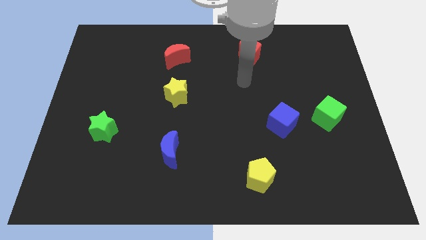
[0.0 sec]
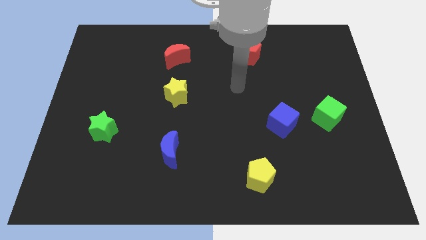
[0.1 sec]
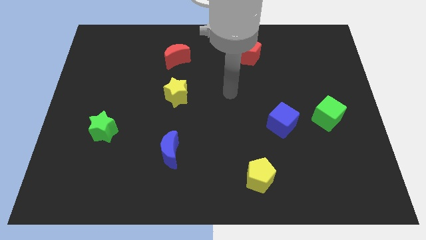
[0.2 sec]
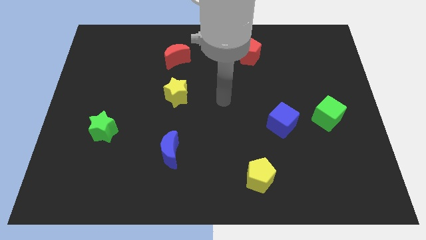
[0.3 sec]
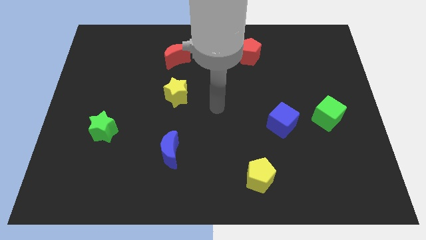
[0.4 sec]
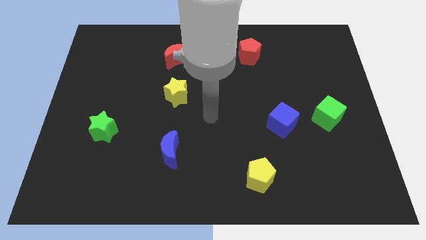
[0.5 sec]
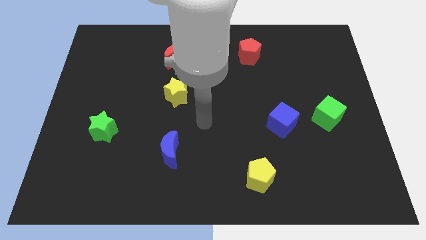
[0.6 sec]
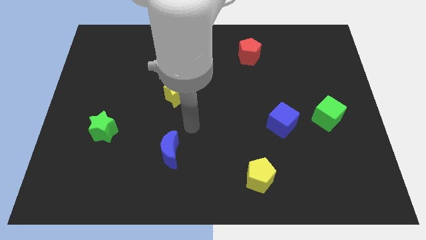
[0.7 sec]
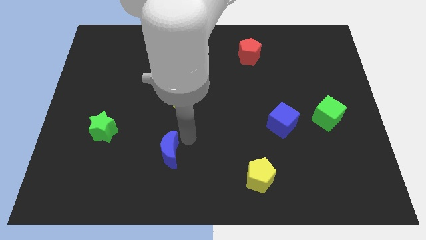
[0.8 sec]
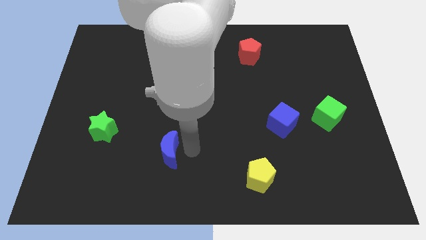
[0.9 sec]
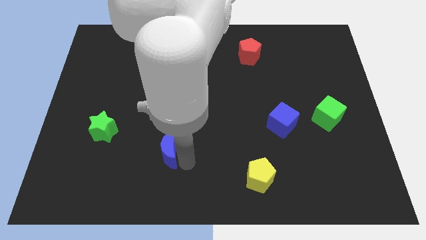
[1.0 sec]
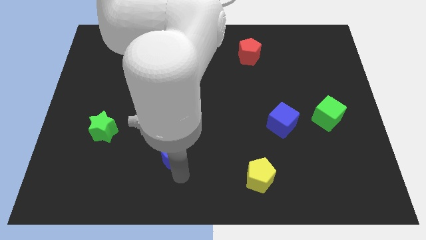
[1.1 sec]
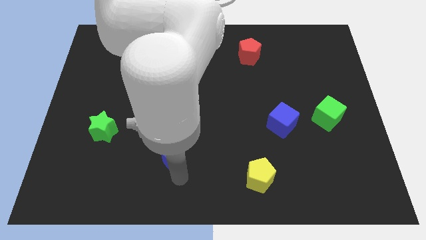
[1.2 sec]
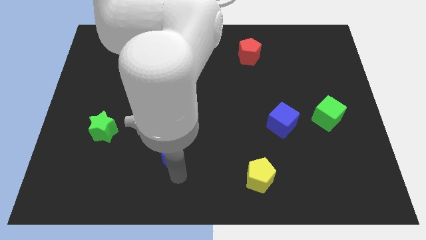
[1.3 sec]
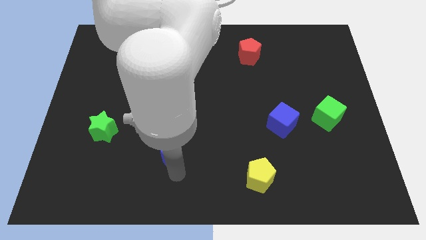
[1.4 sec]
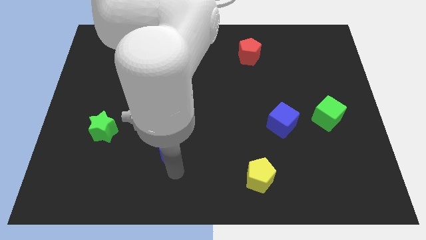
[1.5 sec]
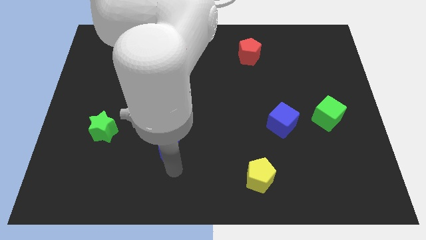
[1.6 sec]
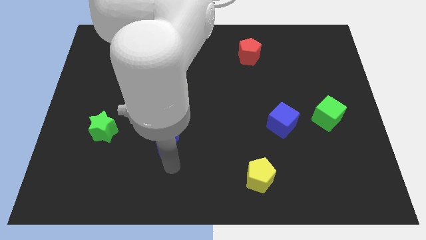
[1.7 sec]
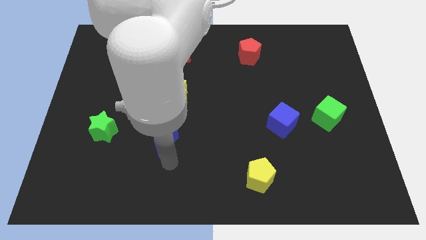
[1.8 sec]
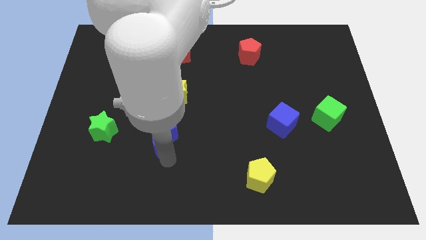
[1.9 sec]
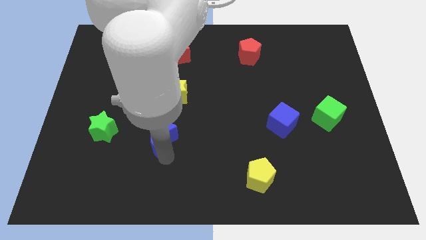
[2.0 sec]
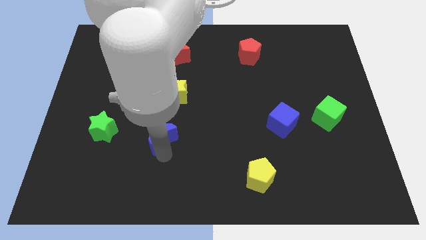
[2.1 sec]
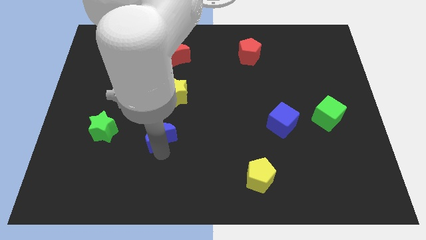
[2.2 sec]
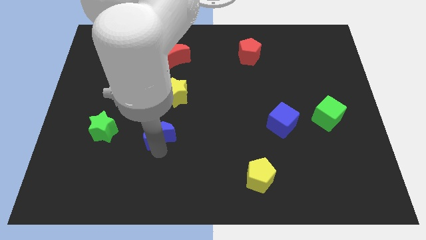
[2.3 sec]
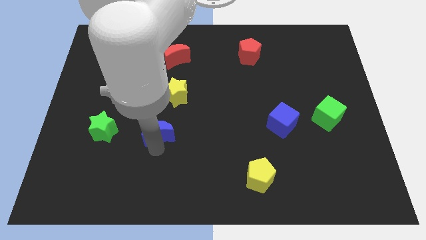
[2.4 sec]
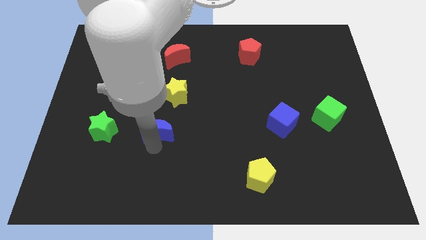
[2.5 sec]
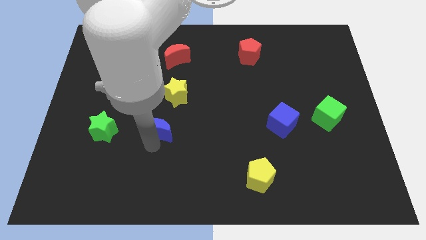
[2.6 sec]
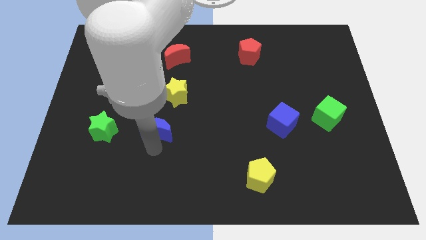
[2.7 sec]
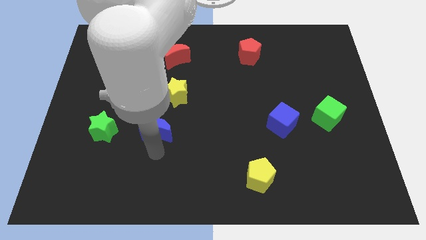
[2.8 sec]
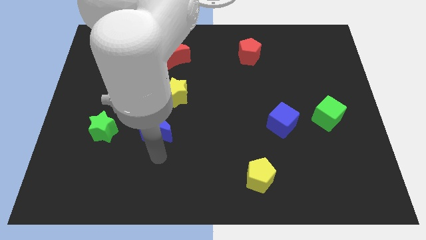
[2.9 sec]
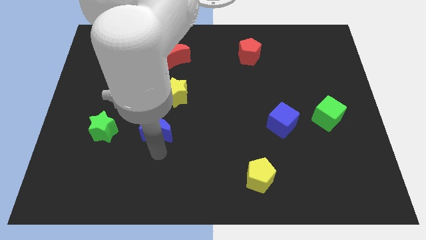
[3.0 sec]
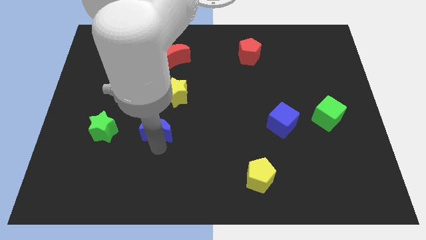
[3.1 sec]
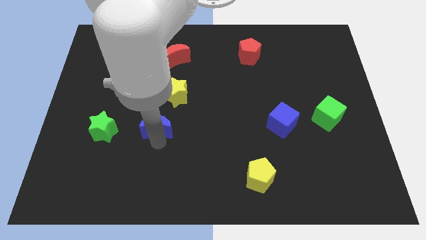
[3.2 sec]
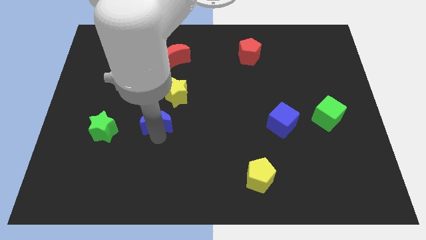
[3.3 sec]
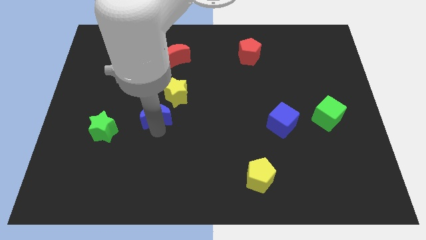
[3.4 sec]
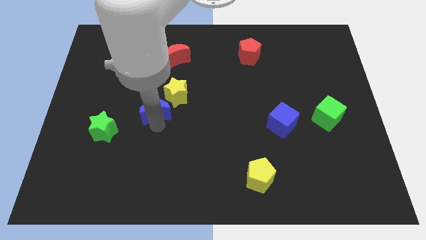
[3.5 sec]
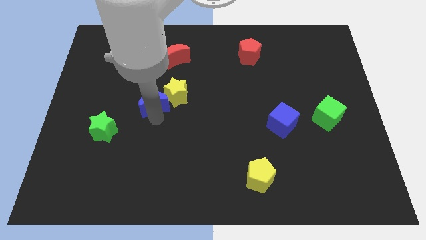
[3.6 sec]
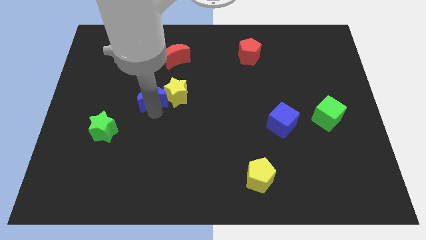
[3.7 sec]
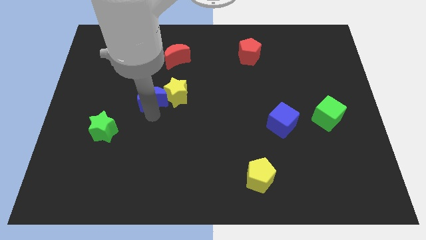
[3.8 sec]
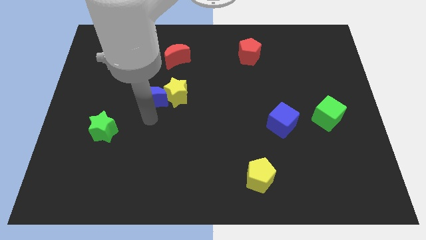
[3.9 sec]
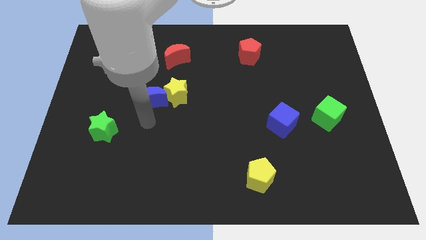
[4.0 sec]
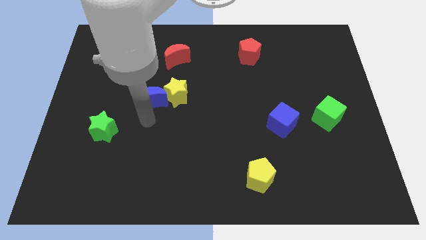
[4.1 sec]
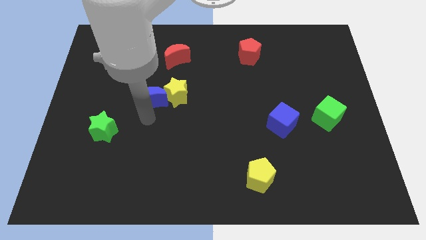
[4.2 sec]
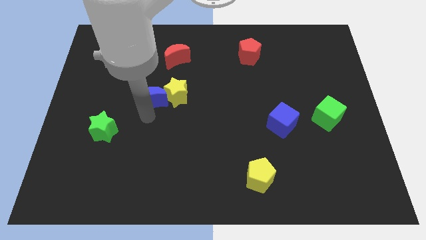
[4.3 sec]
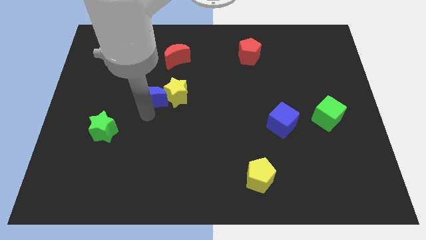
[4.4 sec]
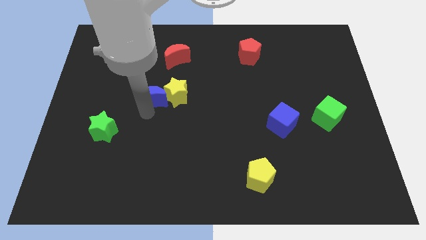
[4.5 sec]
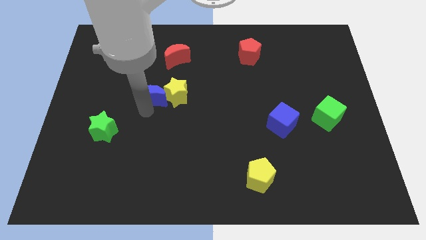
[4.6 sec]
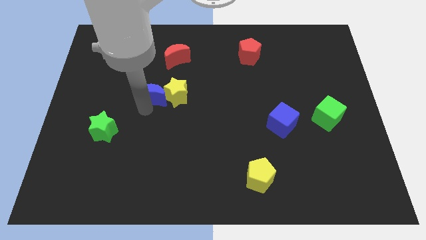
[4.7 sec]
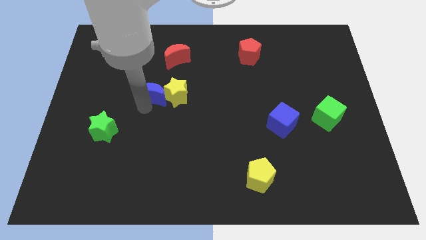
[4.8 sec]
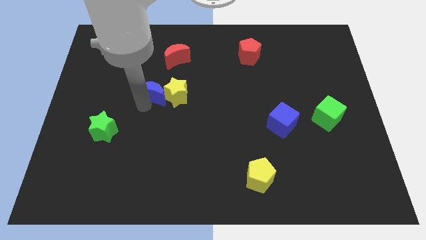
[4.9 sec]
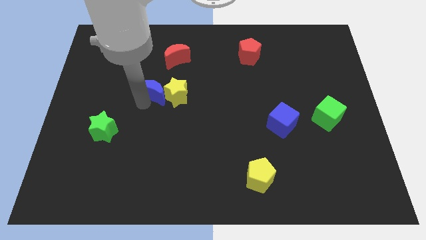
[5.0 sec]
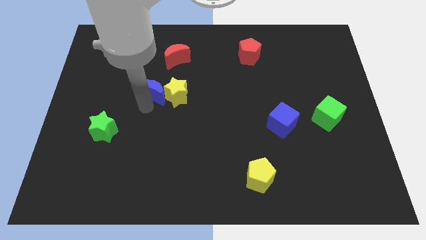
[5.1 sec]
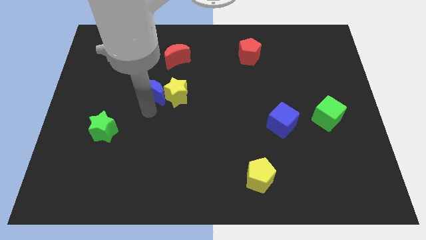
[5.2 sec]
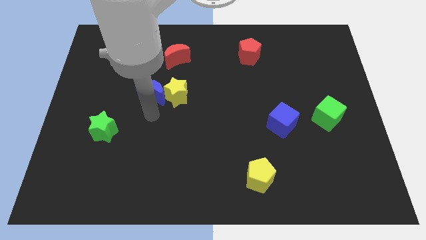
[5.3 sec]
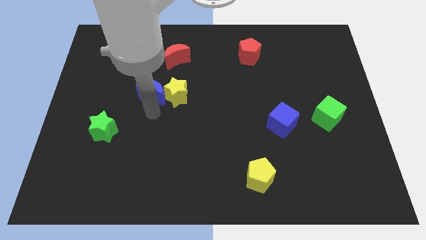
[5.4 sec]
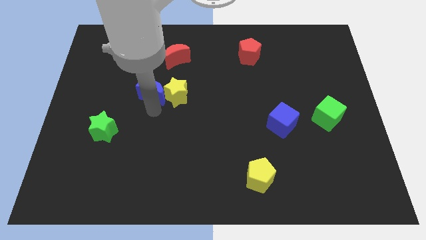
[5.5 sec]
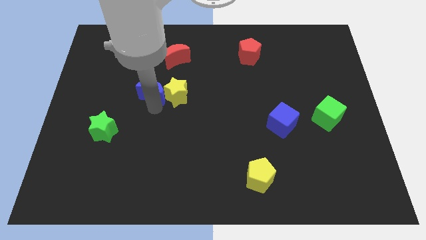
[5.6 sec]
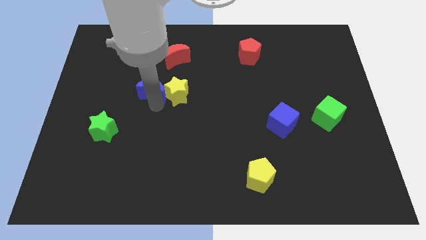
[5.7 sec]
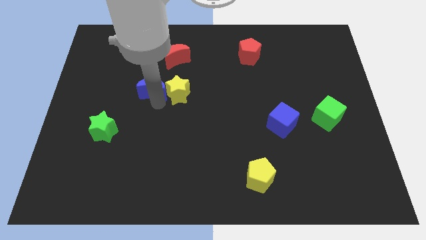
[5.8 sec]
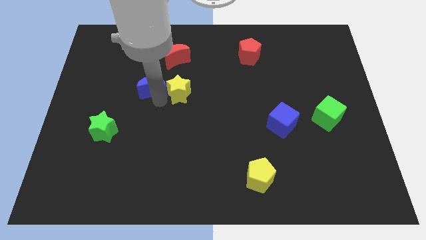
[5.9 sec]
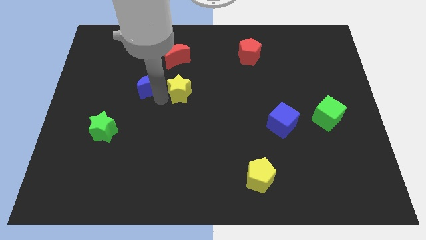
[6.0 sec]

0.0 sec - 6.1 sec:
move the blue moon diagonally down and to the left of the red moon

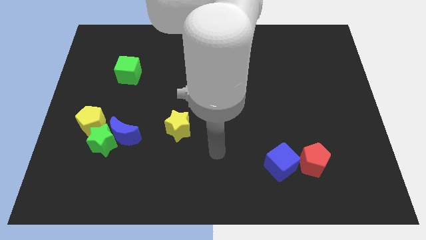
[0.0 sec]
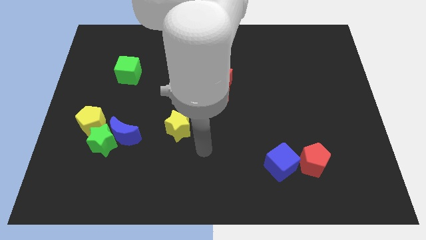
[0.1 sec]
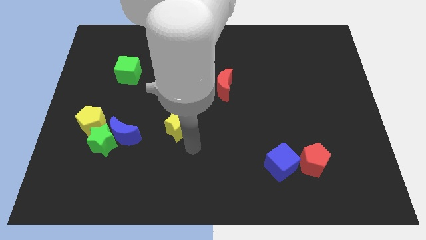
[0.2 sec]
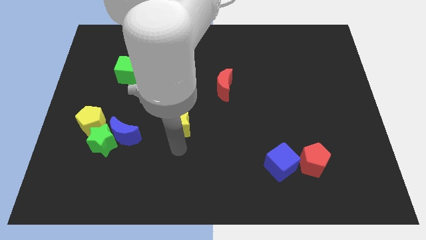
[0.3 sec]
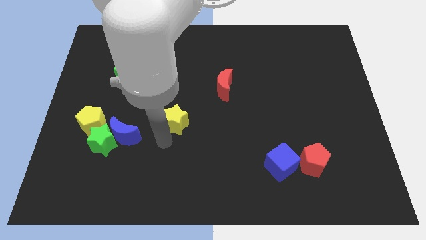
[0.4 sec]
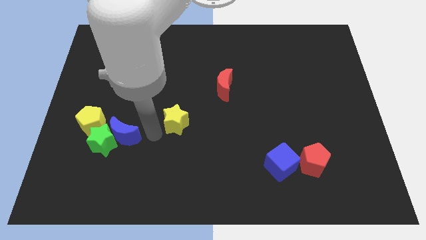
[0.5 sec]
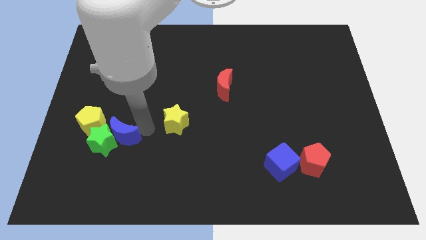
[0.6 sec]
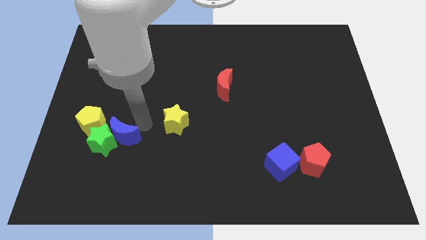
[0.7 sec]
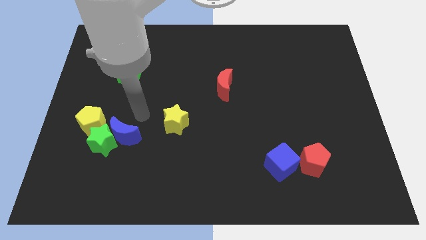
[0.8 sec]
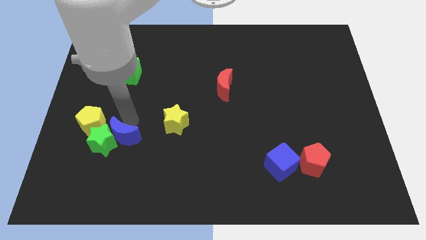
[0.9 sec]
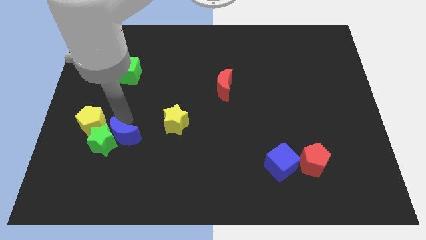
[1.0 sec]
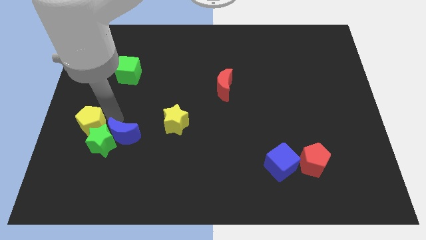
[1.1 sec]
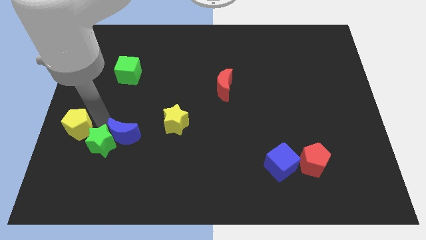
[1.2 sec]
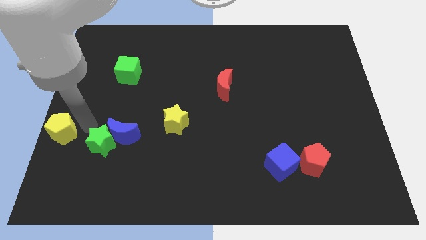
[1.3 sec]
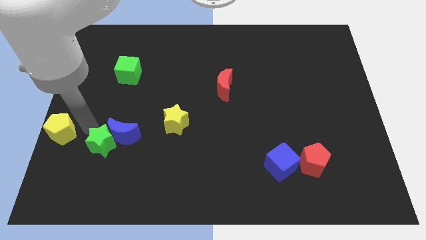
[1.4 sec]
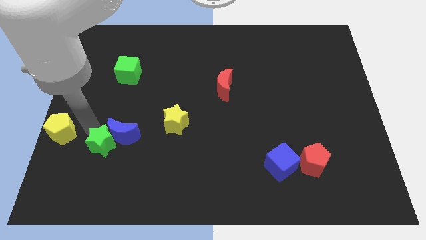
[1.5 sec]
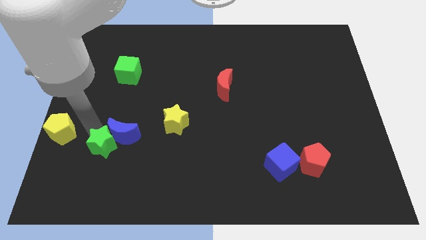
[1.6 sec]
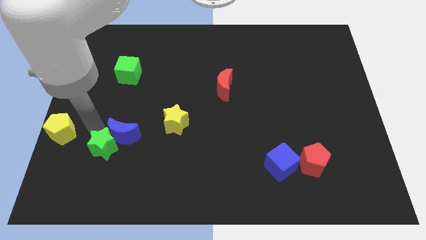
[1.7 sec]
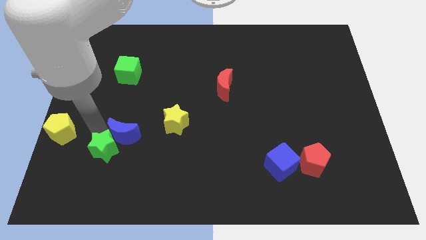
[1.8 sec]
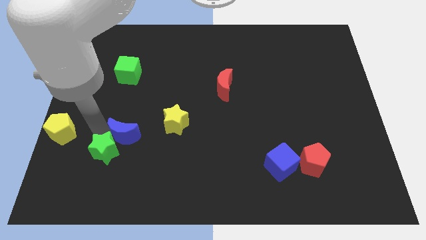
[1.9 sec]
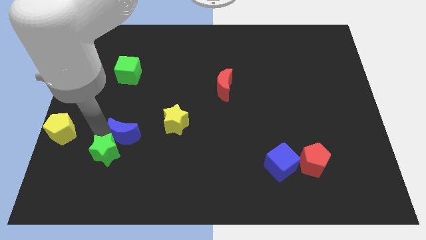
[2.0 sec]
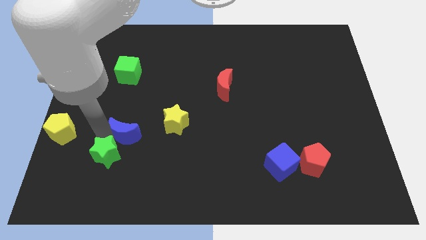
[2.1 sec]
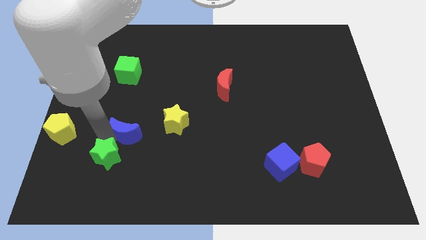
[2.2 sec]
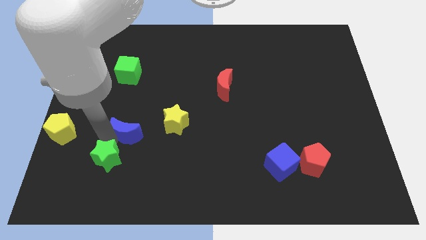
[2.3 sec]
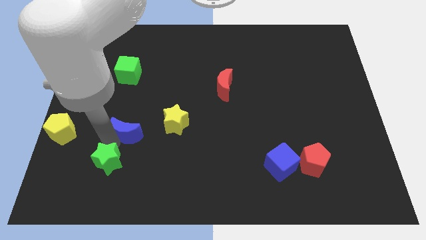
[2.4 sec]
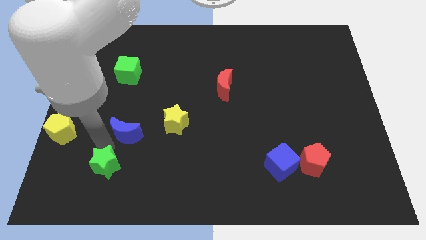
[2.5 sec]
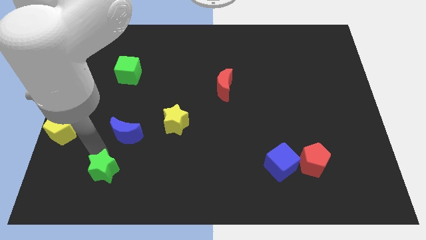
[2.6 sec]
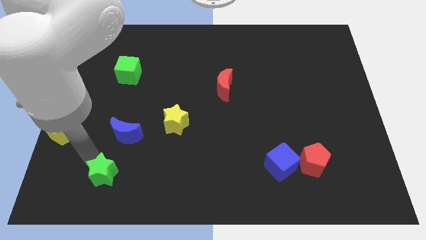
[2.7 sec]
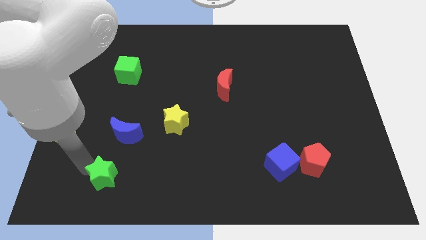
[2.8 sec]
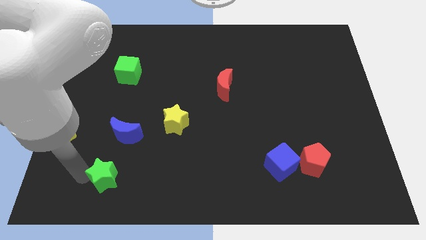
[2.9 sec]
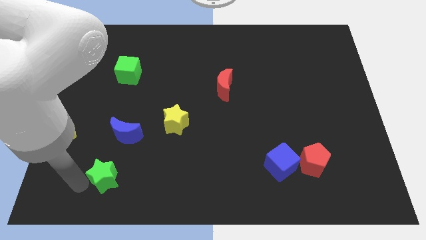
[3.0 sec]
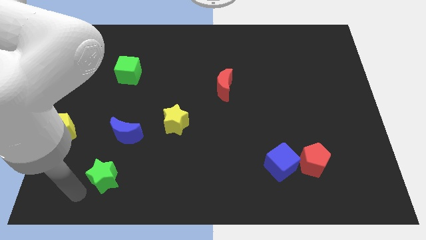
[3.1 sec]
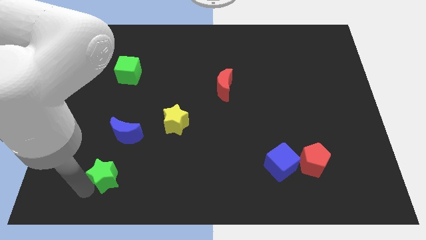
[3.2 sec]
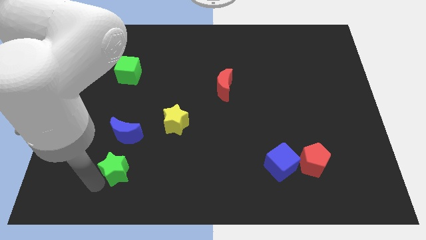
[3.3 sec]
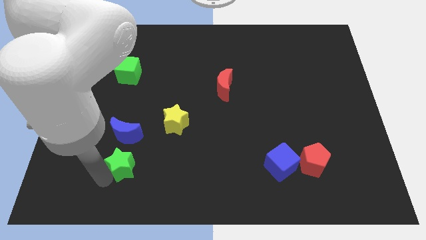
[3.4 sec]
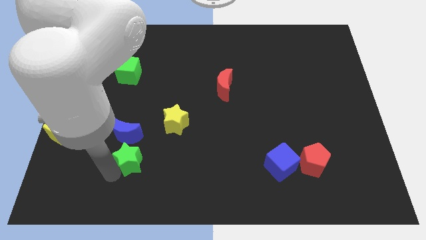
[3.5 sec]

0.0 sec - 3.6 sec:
slide the green star to the bottom right side of the blue moon
